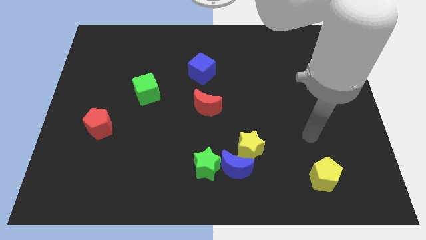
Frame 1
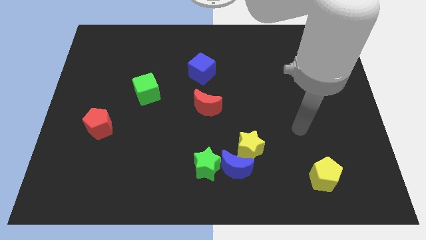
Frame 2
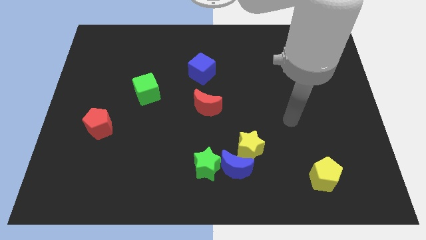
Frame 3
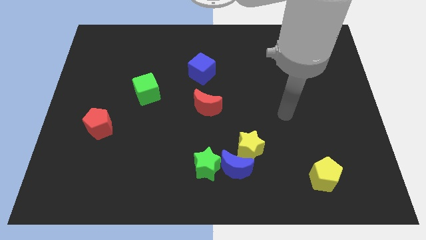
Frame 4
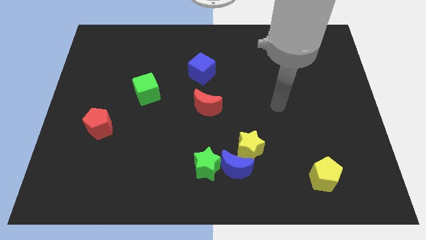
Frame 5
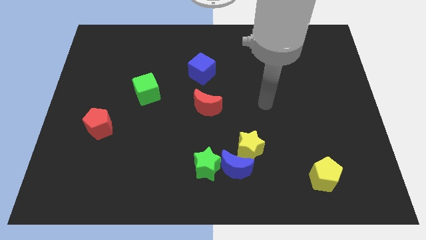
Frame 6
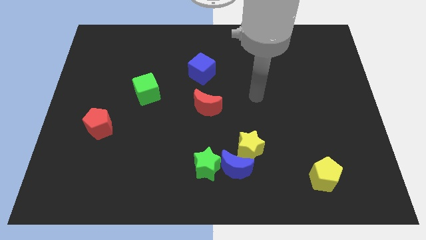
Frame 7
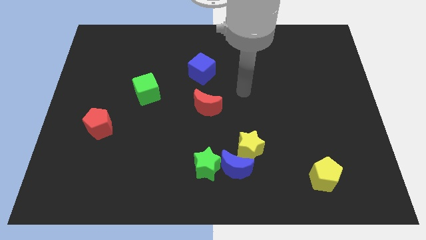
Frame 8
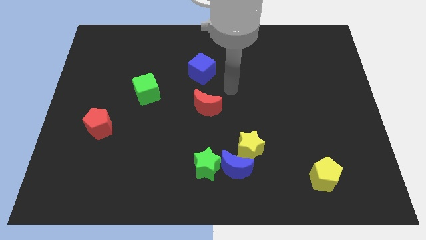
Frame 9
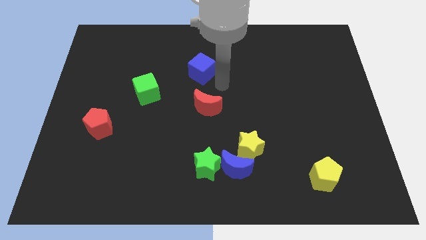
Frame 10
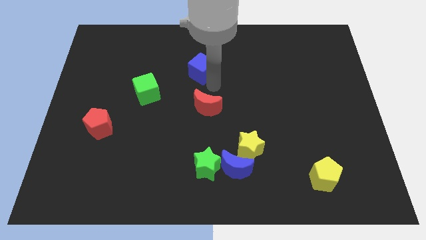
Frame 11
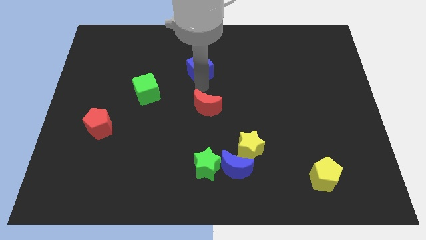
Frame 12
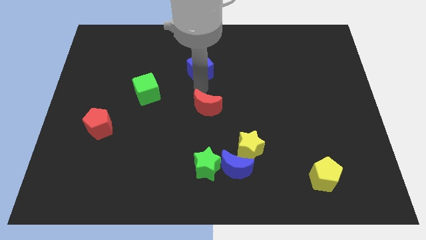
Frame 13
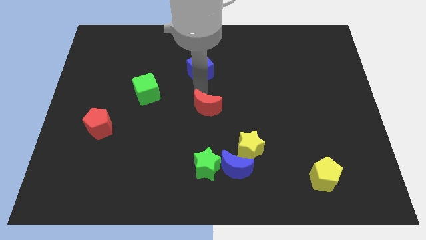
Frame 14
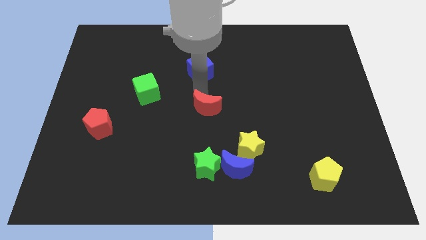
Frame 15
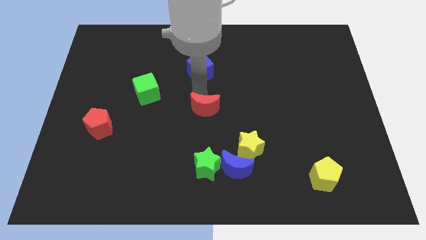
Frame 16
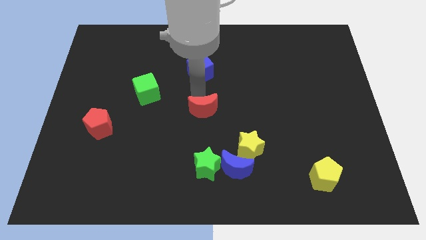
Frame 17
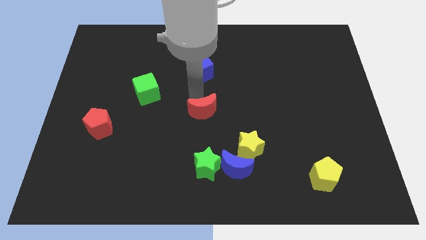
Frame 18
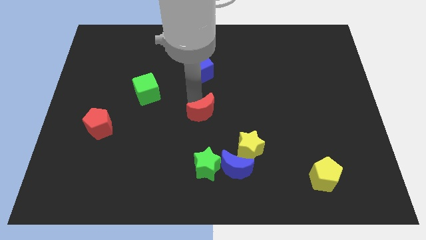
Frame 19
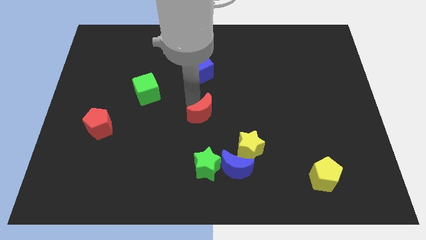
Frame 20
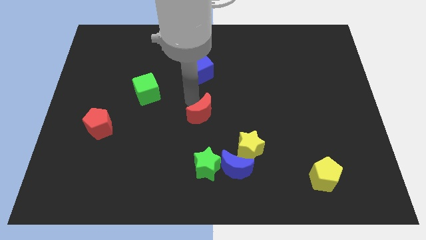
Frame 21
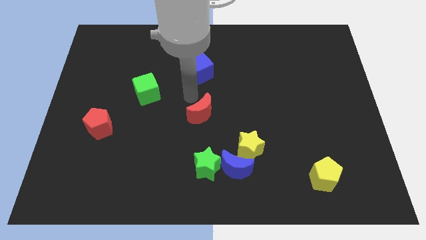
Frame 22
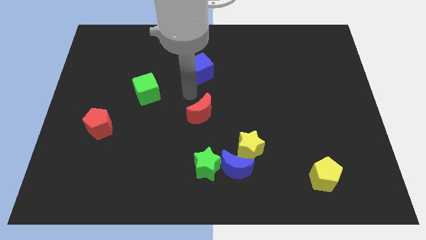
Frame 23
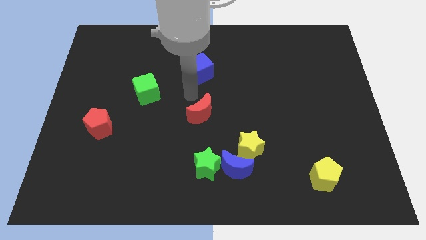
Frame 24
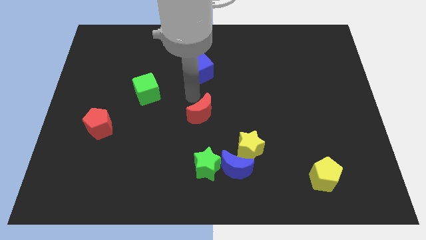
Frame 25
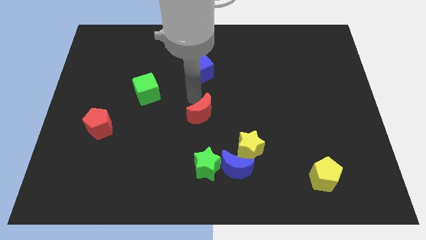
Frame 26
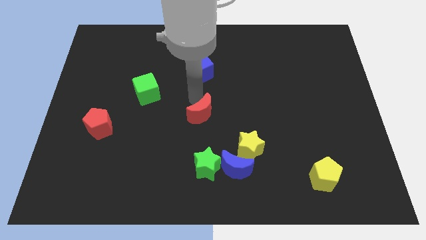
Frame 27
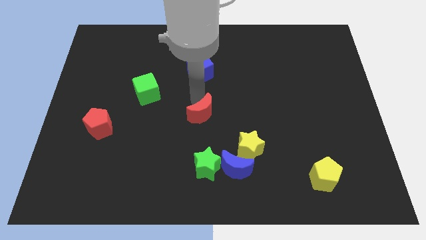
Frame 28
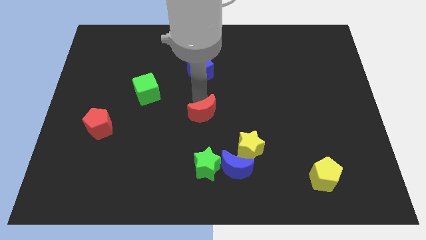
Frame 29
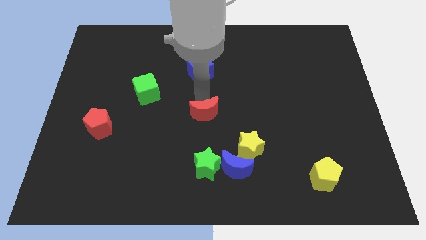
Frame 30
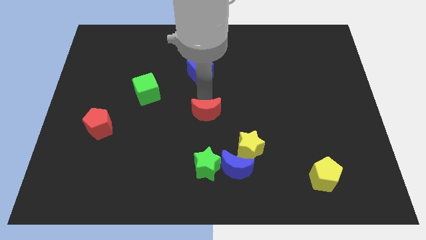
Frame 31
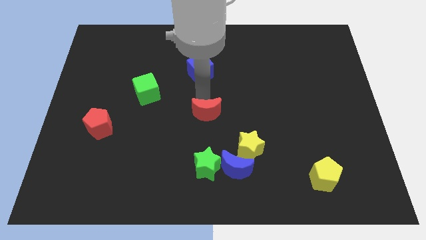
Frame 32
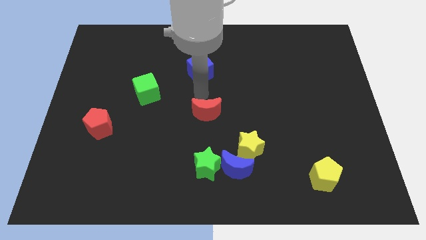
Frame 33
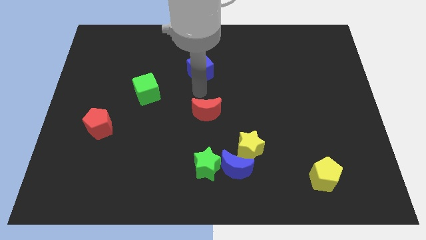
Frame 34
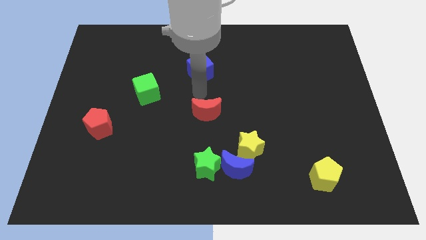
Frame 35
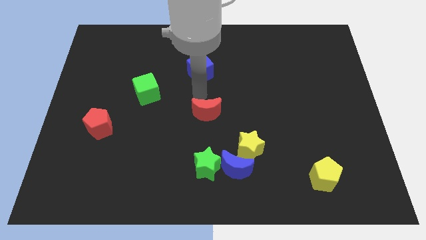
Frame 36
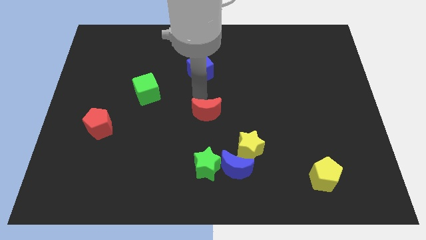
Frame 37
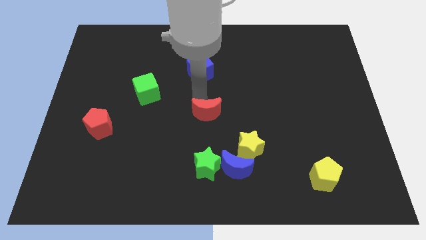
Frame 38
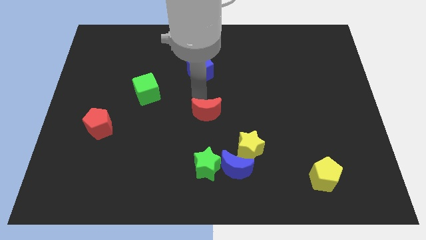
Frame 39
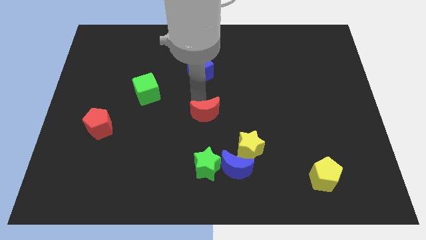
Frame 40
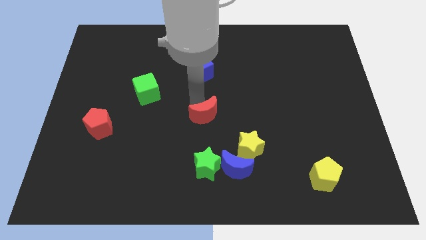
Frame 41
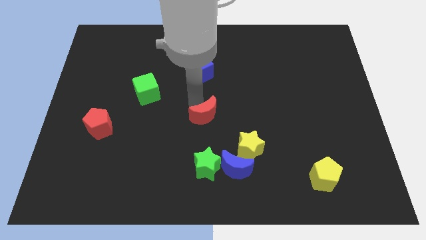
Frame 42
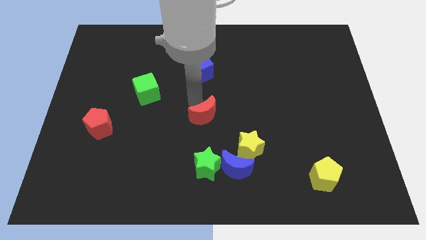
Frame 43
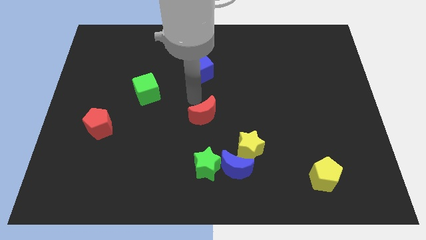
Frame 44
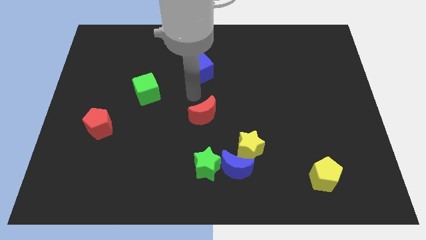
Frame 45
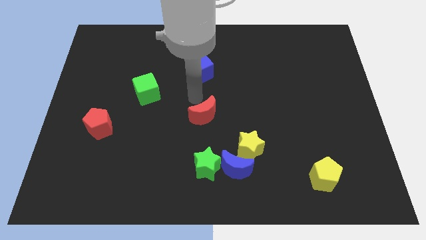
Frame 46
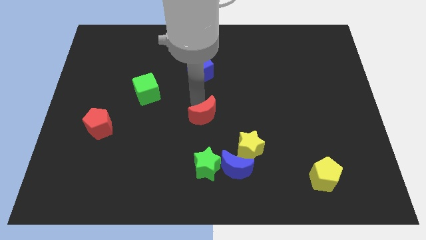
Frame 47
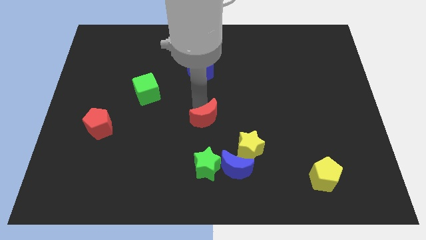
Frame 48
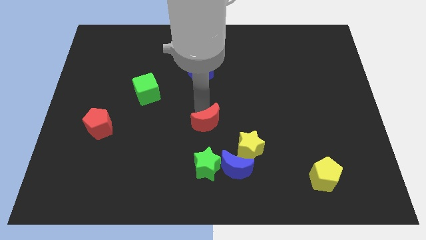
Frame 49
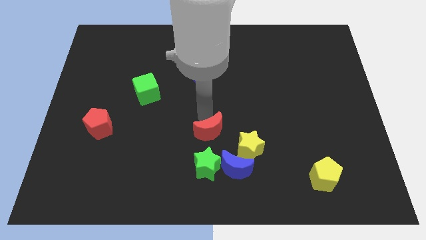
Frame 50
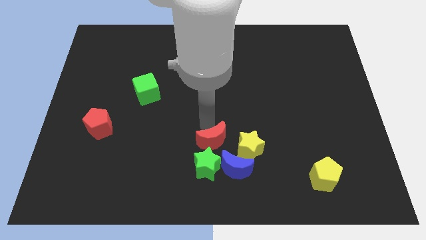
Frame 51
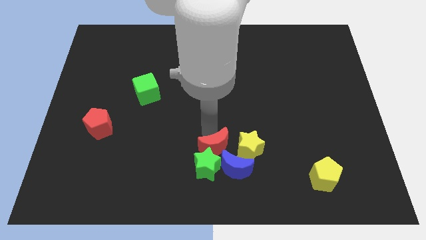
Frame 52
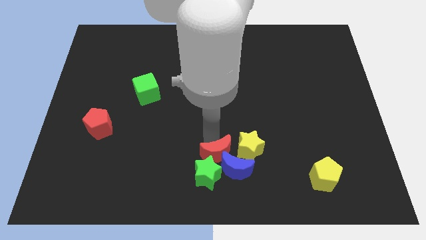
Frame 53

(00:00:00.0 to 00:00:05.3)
move the red moon close to the blue moon

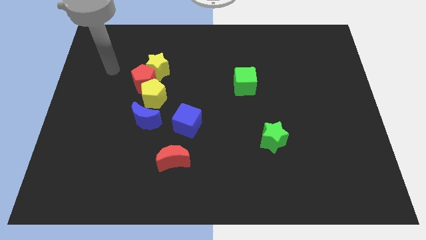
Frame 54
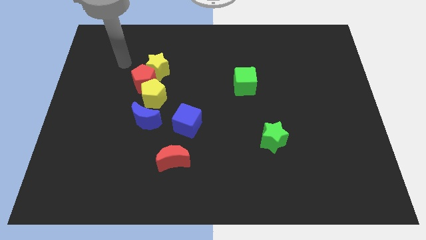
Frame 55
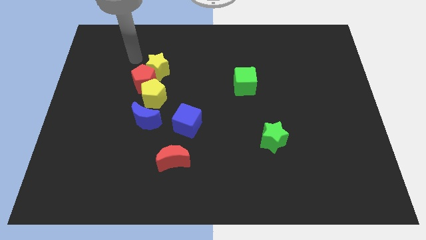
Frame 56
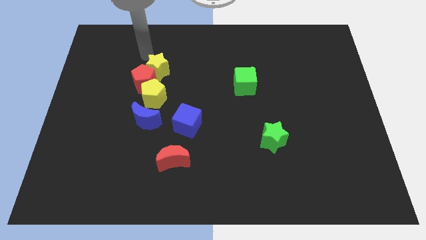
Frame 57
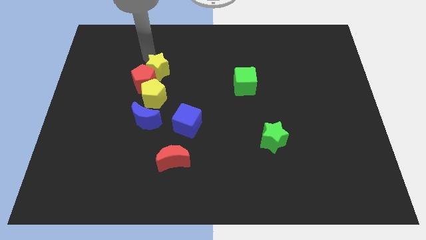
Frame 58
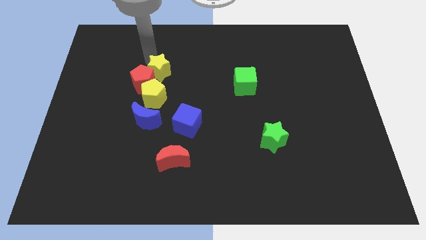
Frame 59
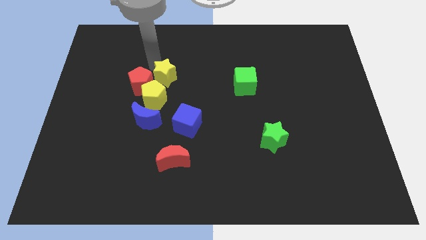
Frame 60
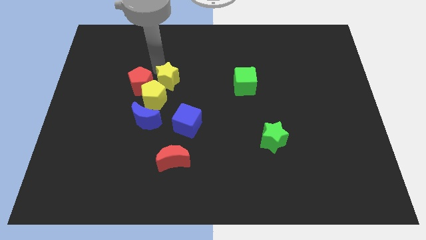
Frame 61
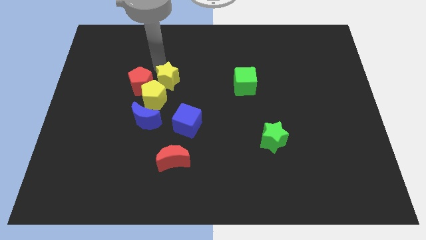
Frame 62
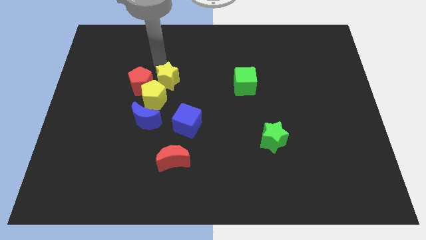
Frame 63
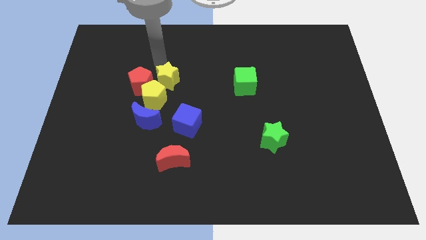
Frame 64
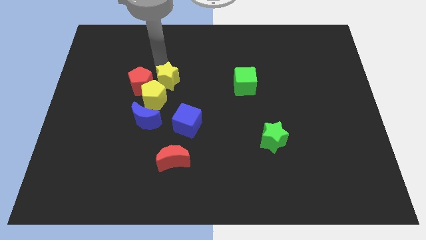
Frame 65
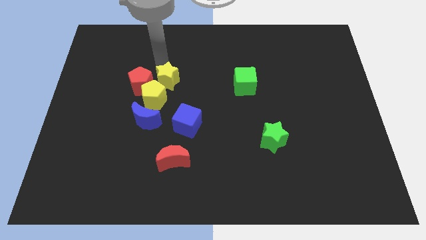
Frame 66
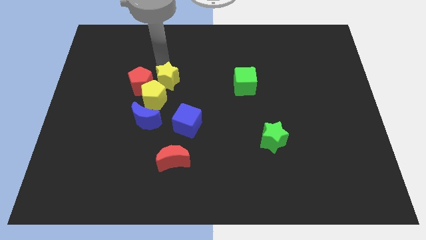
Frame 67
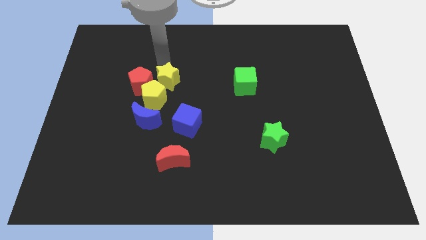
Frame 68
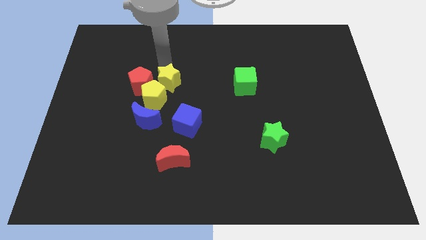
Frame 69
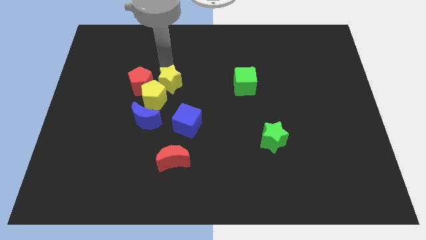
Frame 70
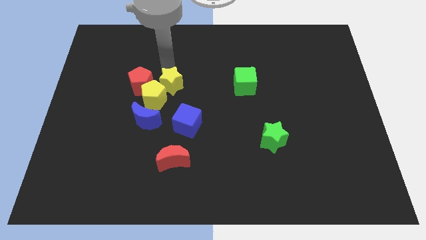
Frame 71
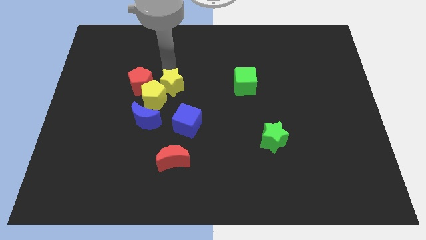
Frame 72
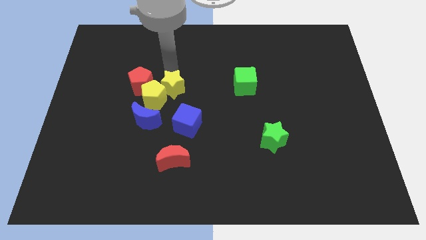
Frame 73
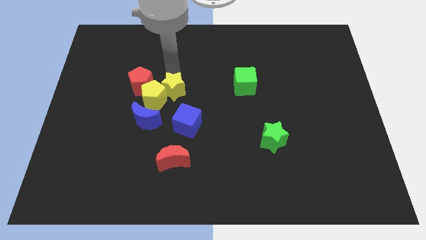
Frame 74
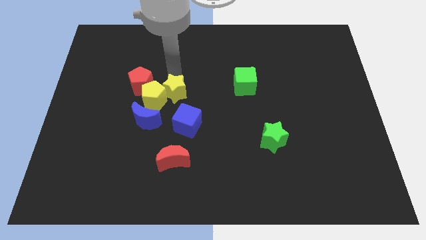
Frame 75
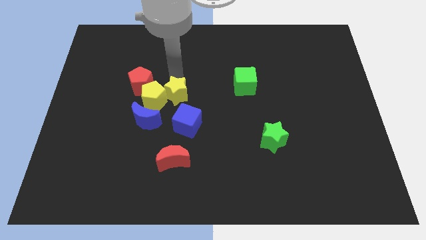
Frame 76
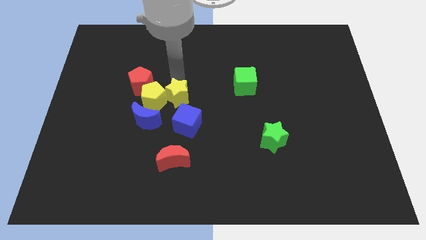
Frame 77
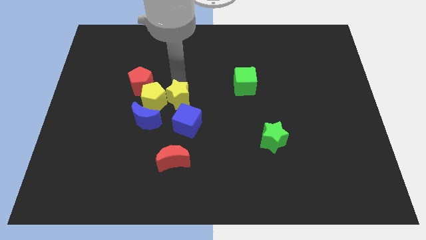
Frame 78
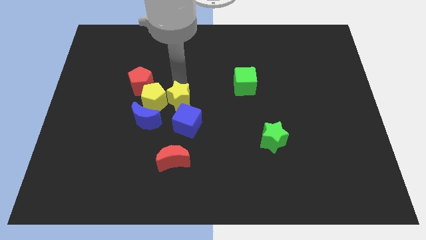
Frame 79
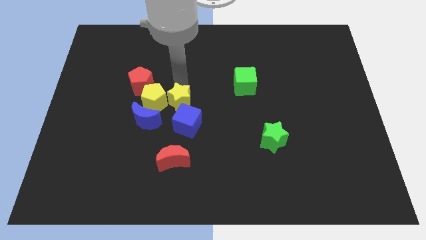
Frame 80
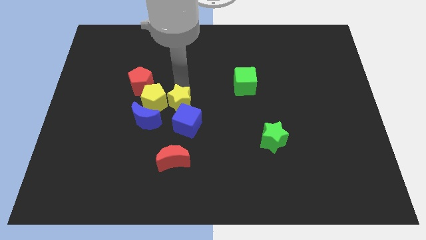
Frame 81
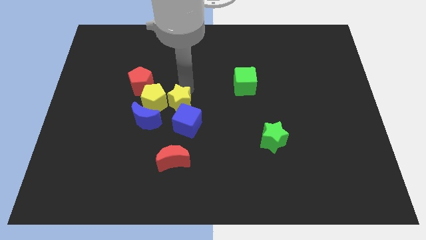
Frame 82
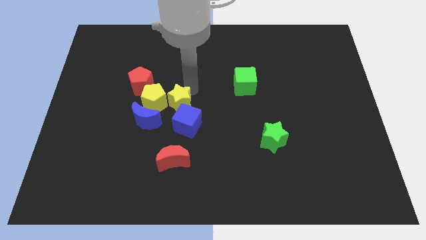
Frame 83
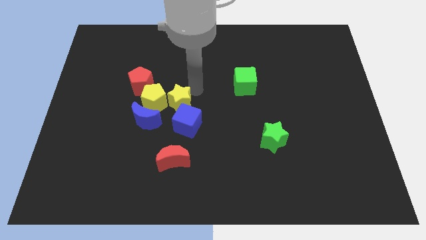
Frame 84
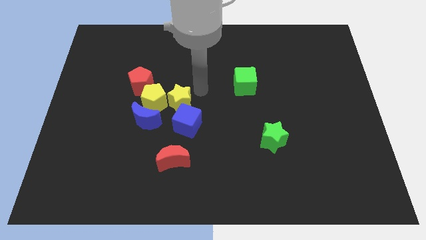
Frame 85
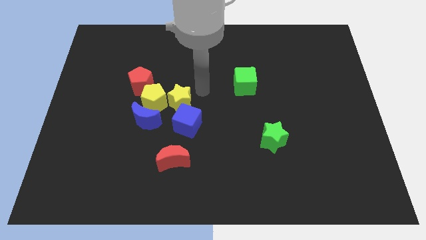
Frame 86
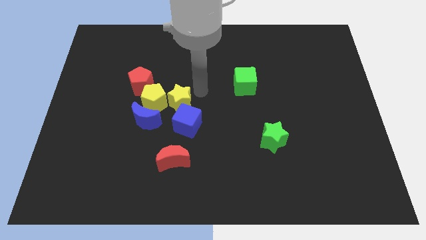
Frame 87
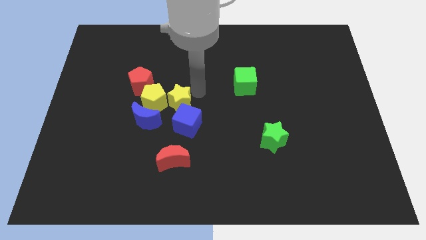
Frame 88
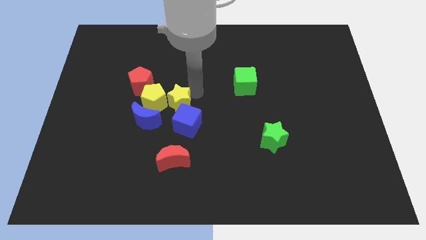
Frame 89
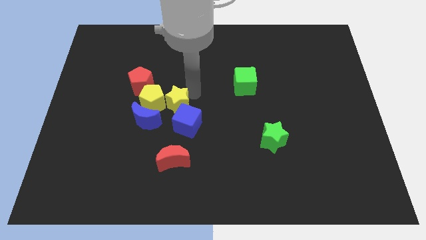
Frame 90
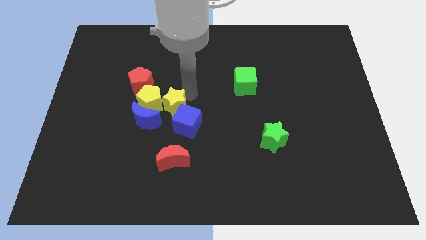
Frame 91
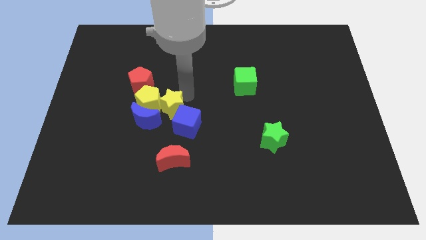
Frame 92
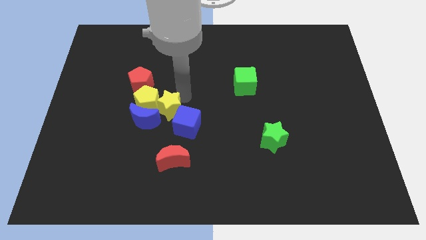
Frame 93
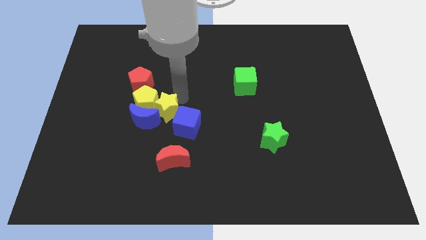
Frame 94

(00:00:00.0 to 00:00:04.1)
move the yellow star close to the blue moon
